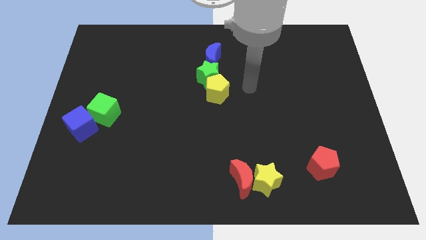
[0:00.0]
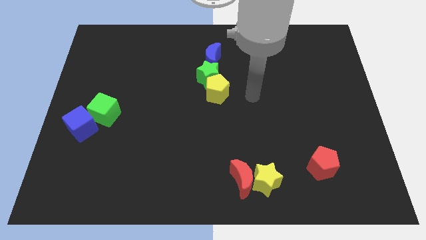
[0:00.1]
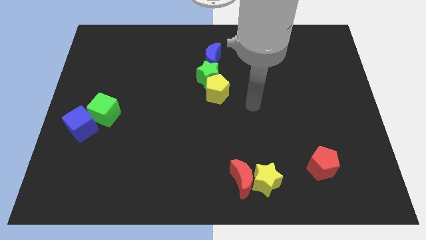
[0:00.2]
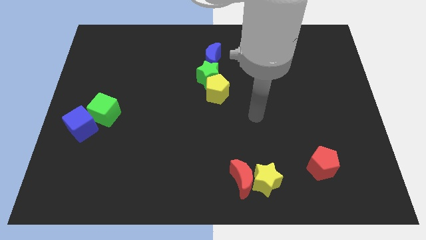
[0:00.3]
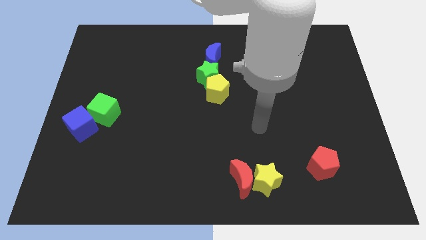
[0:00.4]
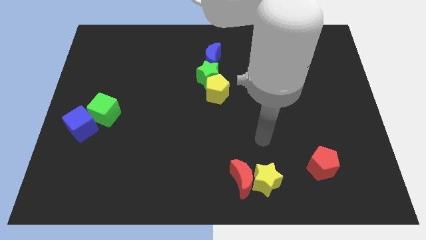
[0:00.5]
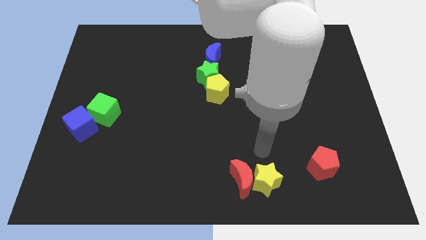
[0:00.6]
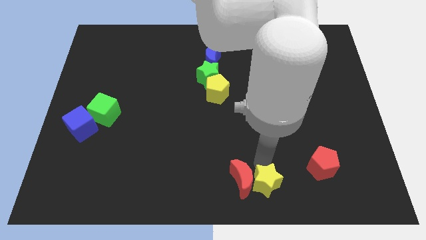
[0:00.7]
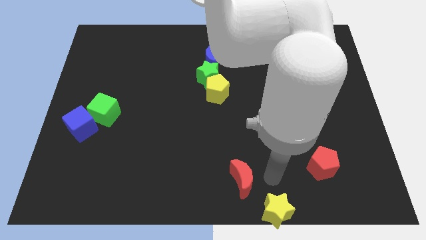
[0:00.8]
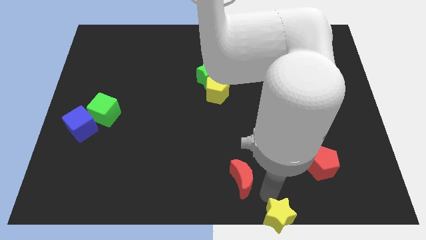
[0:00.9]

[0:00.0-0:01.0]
pull the red moon apart from the yellow star

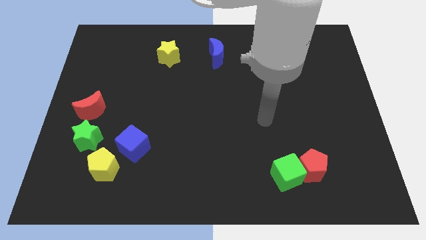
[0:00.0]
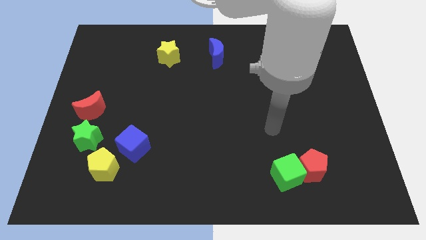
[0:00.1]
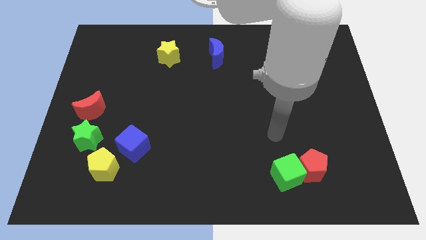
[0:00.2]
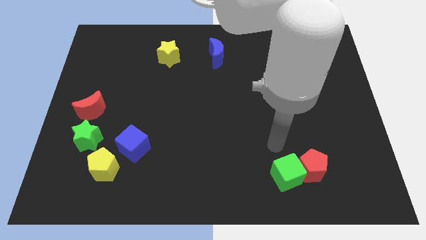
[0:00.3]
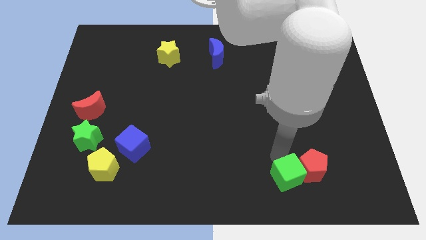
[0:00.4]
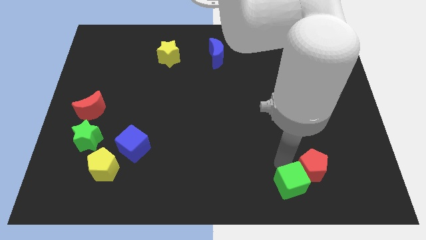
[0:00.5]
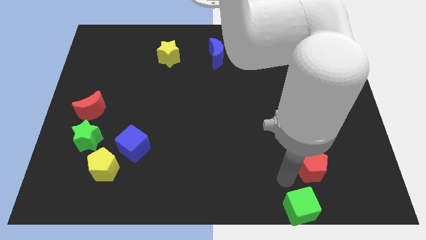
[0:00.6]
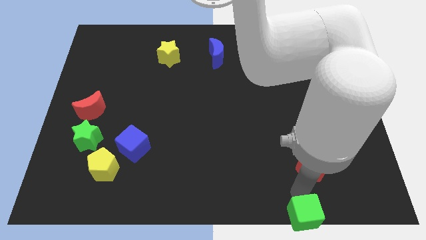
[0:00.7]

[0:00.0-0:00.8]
move the red pentagon away from the green cube

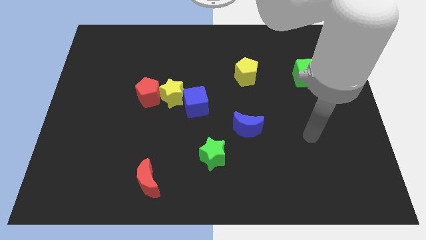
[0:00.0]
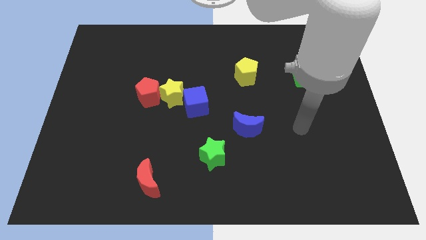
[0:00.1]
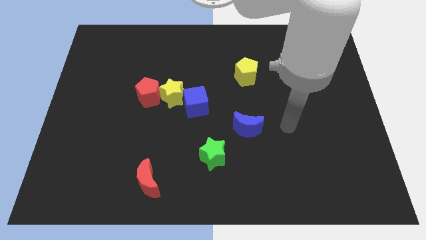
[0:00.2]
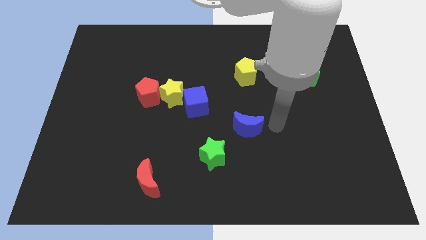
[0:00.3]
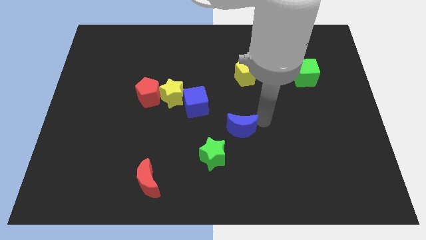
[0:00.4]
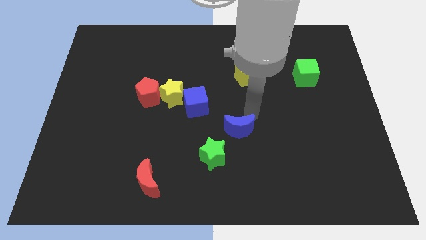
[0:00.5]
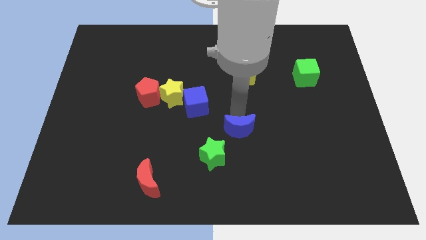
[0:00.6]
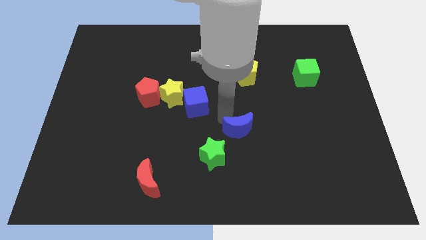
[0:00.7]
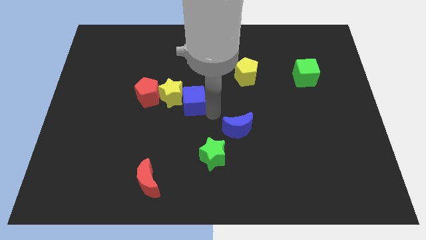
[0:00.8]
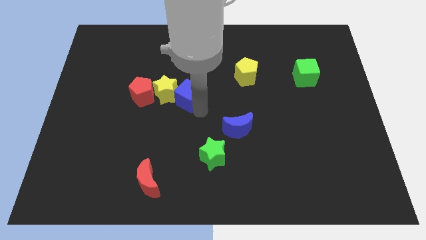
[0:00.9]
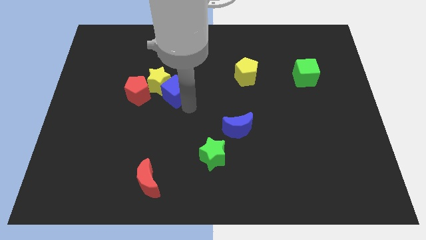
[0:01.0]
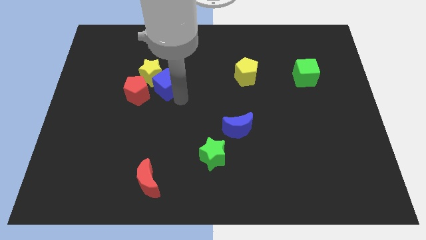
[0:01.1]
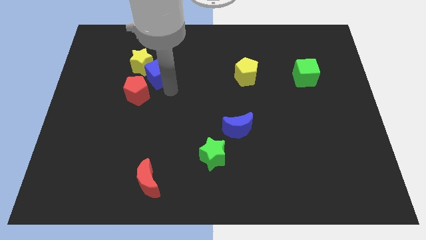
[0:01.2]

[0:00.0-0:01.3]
pull the red pentagon apart from the yellow star

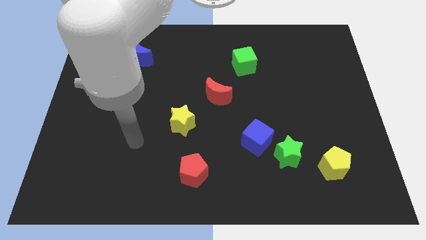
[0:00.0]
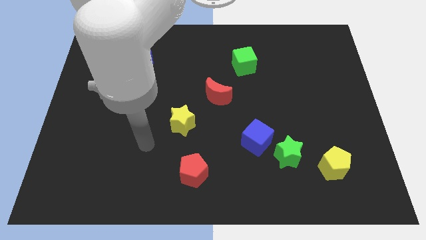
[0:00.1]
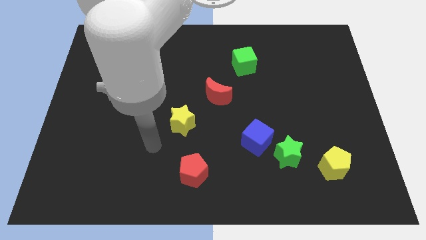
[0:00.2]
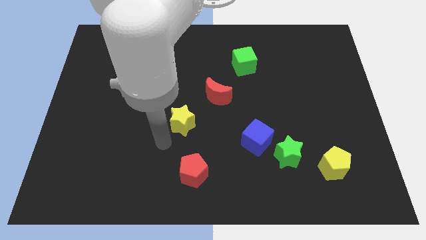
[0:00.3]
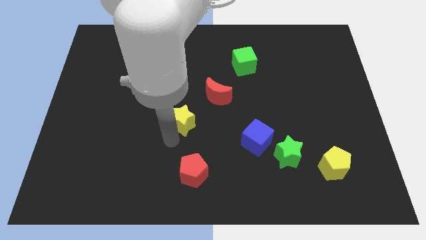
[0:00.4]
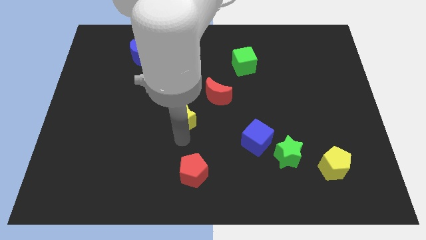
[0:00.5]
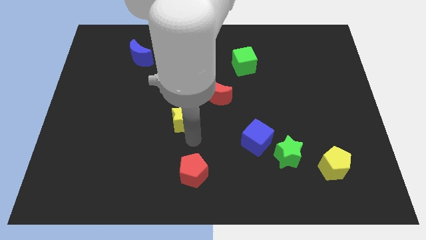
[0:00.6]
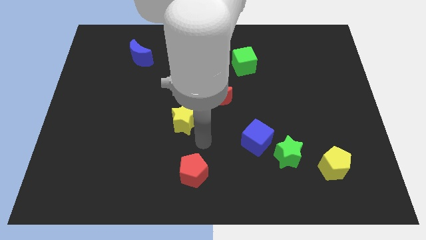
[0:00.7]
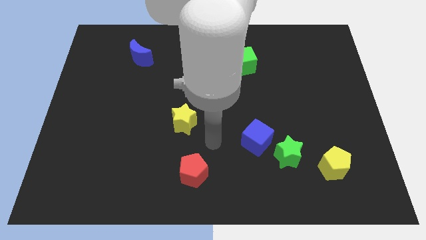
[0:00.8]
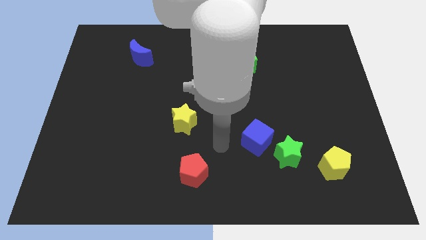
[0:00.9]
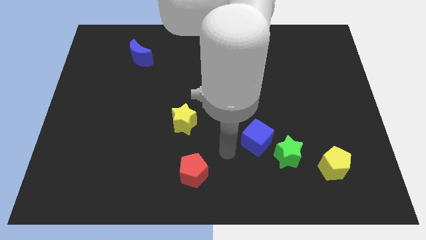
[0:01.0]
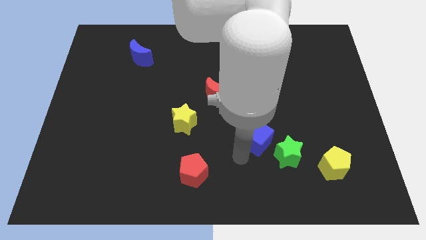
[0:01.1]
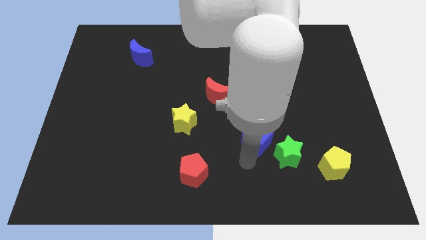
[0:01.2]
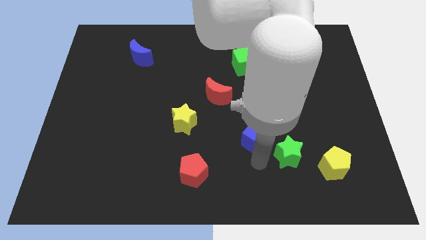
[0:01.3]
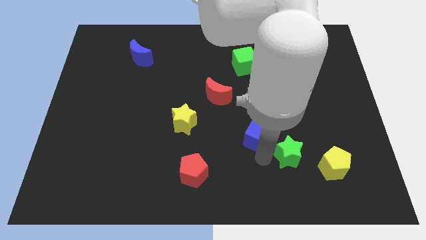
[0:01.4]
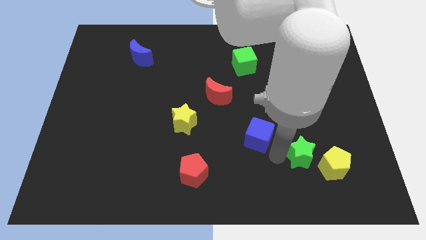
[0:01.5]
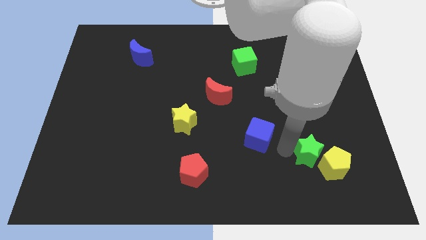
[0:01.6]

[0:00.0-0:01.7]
separate the blue cube from the green star

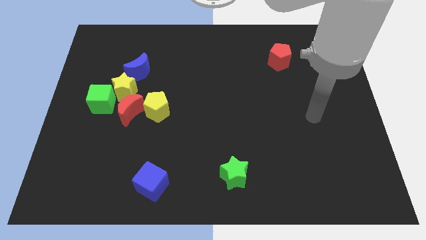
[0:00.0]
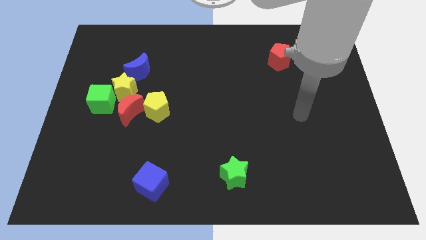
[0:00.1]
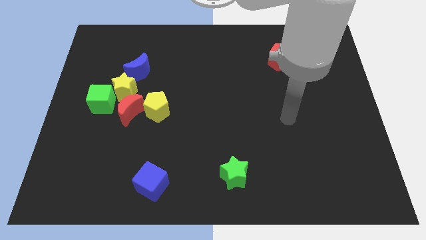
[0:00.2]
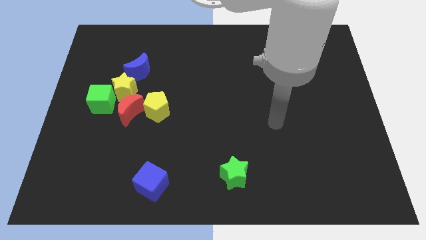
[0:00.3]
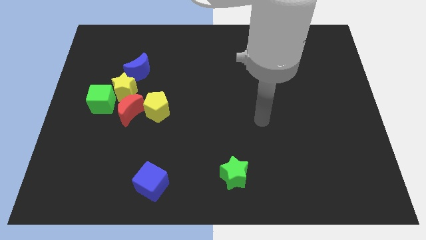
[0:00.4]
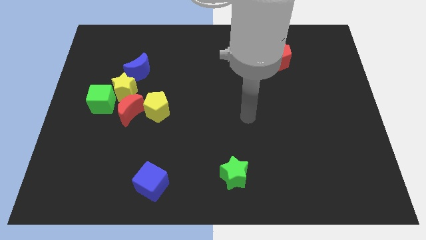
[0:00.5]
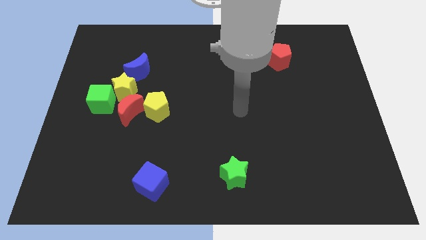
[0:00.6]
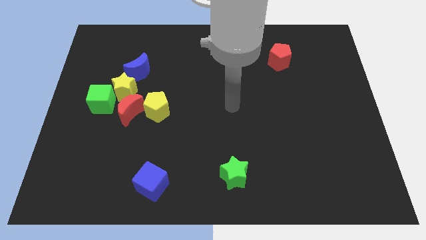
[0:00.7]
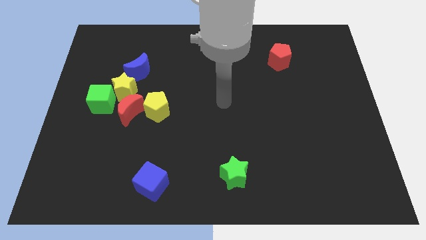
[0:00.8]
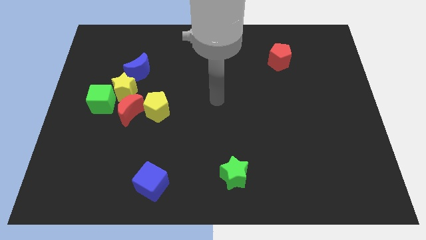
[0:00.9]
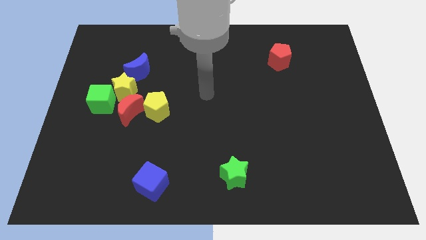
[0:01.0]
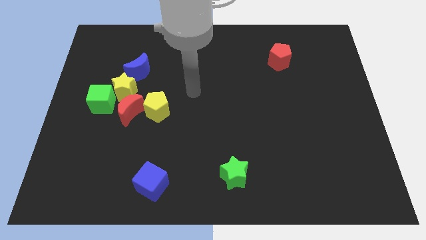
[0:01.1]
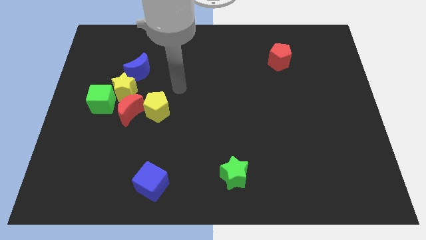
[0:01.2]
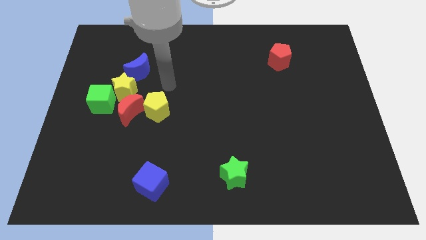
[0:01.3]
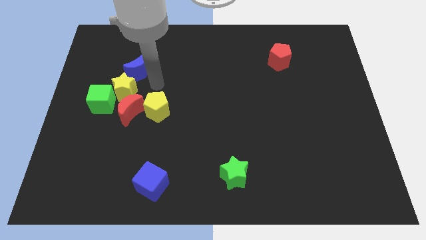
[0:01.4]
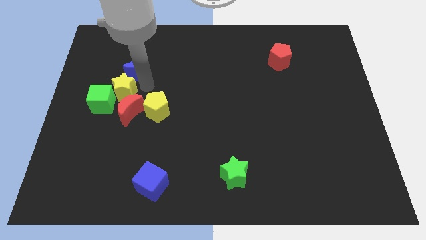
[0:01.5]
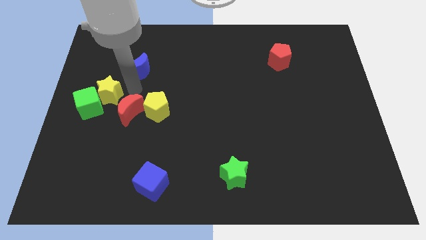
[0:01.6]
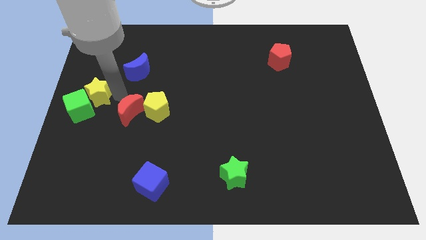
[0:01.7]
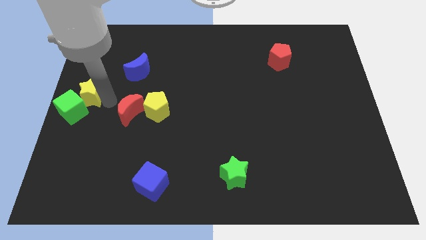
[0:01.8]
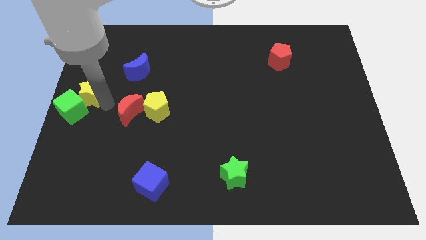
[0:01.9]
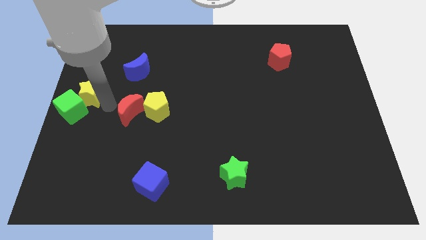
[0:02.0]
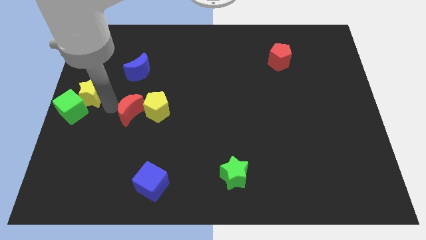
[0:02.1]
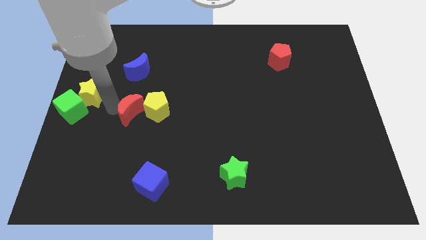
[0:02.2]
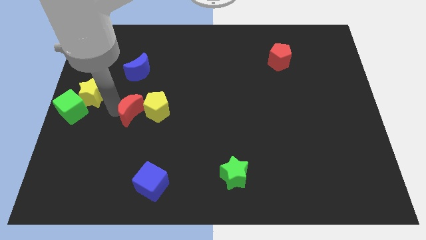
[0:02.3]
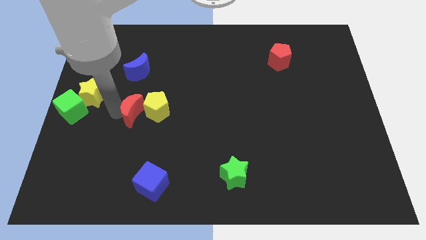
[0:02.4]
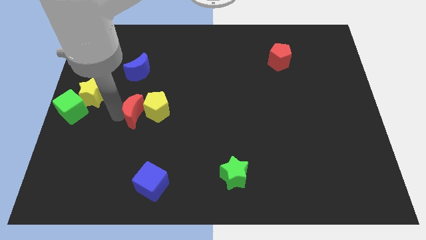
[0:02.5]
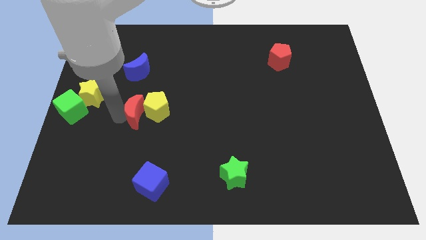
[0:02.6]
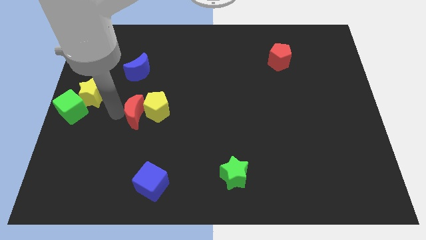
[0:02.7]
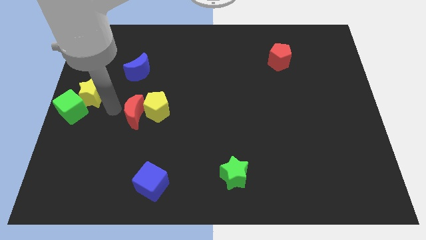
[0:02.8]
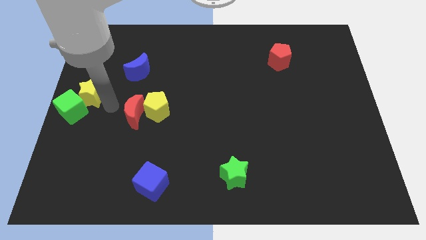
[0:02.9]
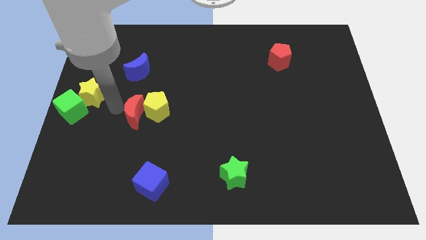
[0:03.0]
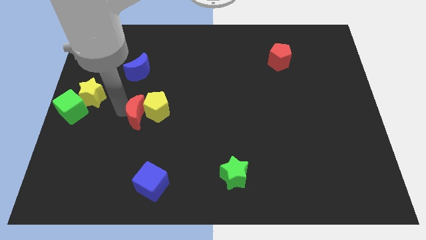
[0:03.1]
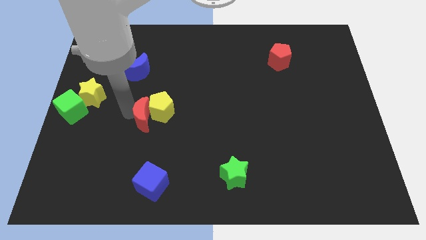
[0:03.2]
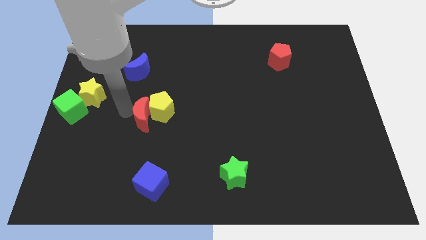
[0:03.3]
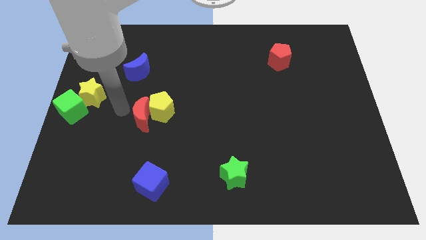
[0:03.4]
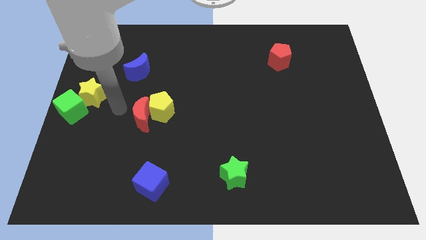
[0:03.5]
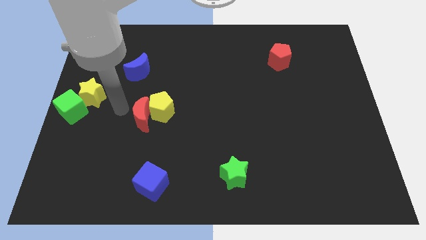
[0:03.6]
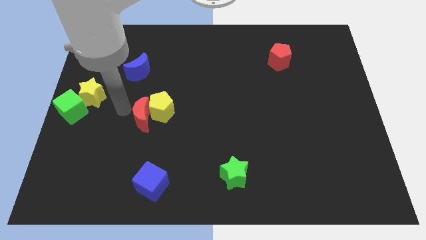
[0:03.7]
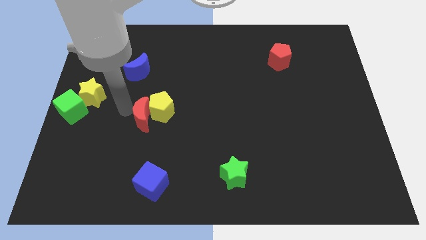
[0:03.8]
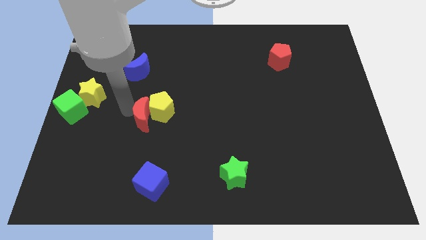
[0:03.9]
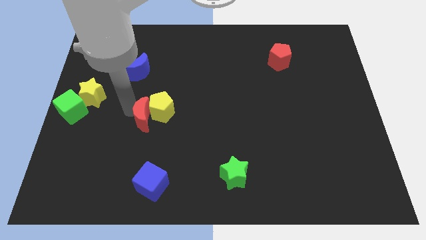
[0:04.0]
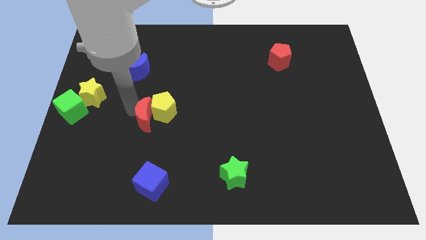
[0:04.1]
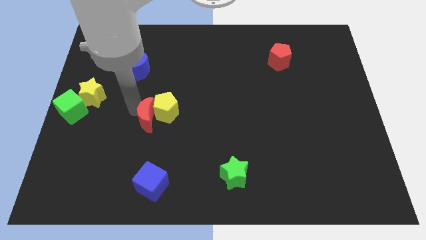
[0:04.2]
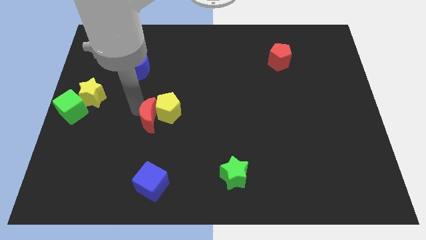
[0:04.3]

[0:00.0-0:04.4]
move the red moon away from the group

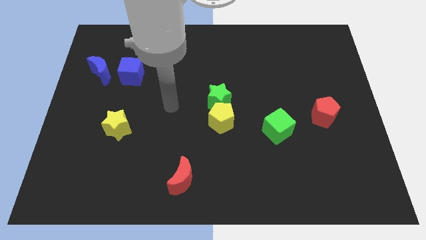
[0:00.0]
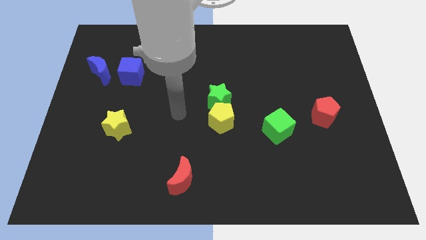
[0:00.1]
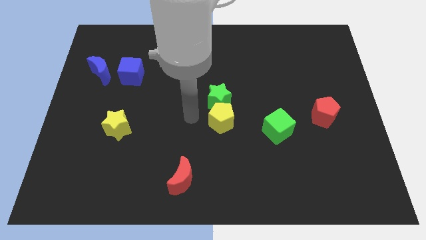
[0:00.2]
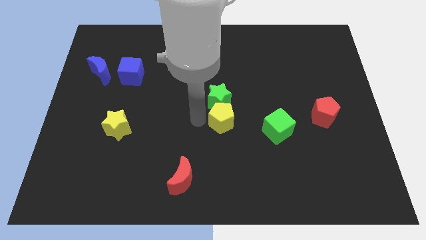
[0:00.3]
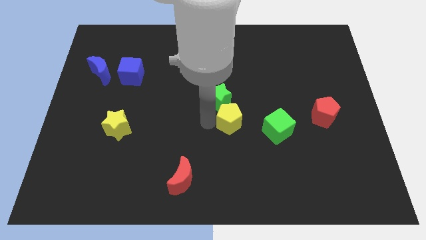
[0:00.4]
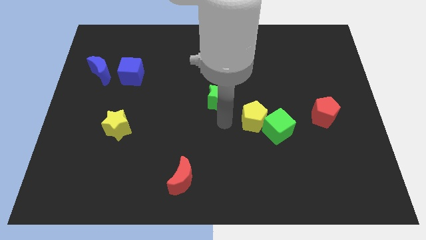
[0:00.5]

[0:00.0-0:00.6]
move the green star away from the yellow pentagon
